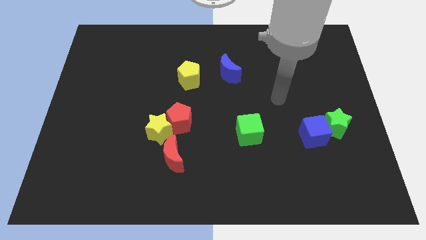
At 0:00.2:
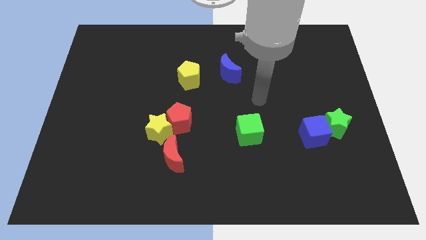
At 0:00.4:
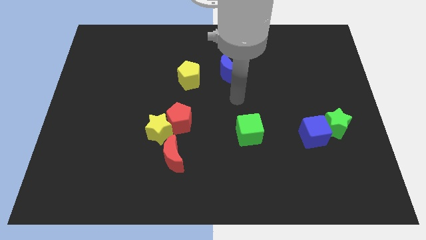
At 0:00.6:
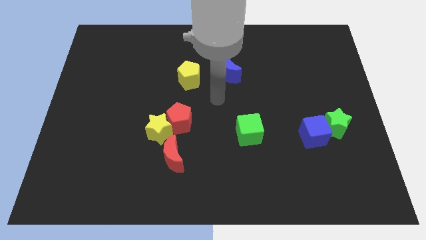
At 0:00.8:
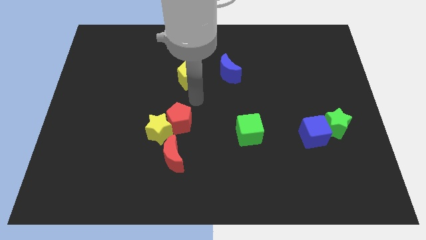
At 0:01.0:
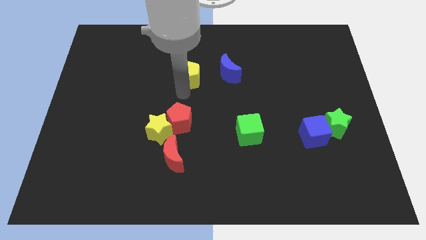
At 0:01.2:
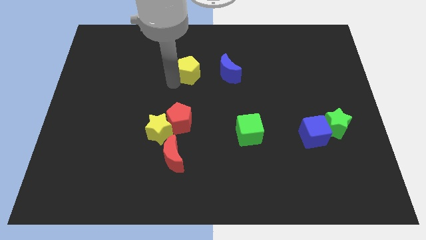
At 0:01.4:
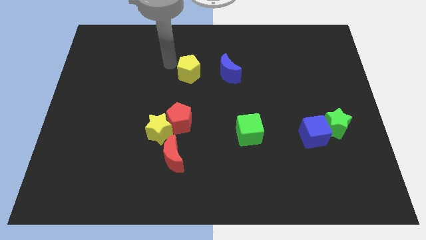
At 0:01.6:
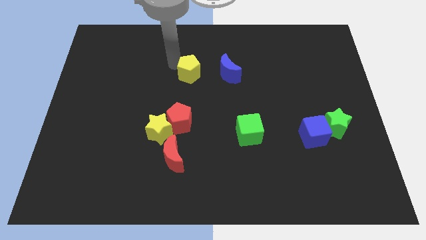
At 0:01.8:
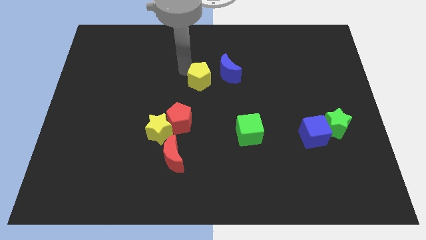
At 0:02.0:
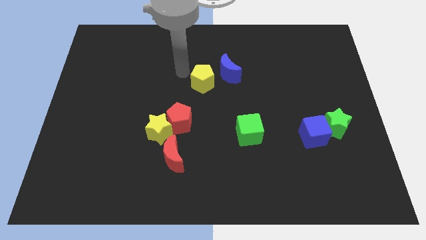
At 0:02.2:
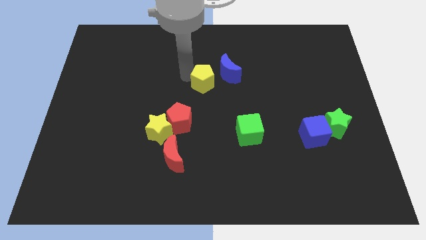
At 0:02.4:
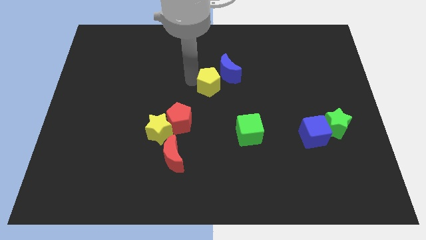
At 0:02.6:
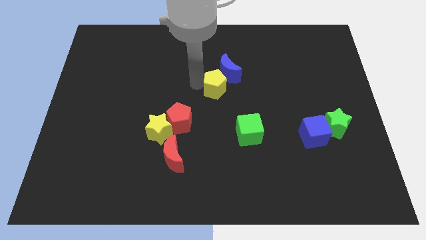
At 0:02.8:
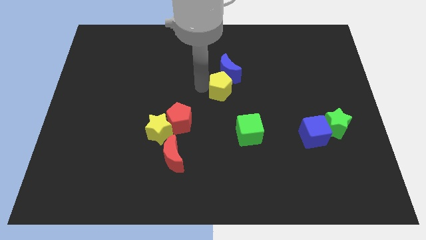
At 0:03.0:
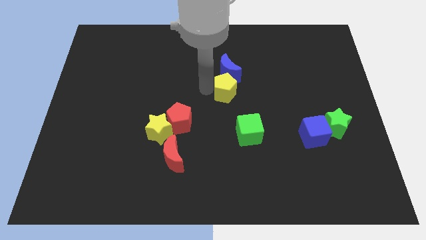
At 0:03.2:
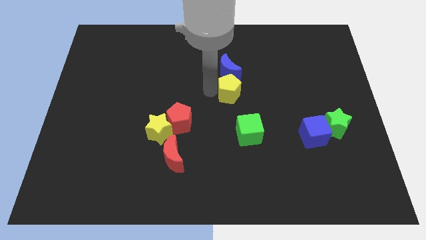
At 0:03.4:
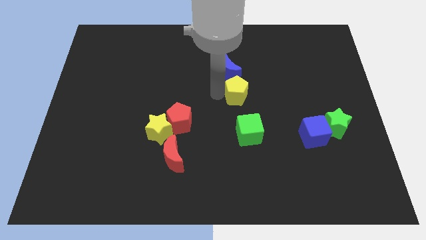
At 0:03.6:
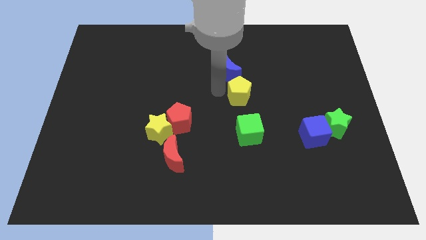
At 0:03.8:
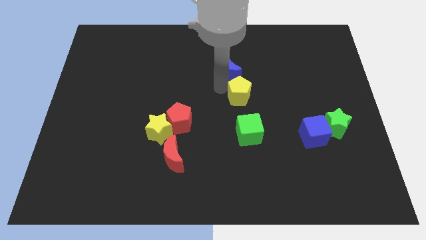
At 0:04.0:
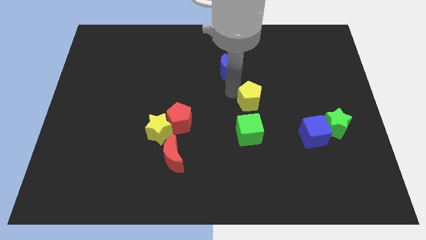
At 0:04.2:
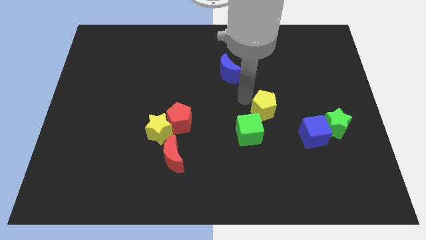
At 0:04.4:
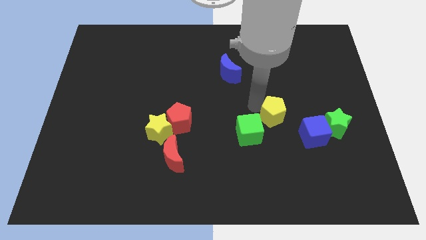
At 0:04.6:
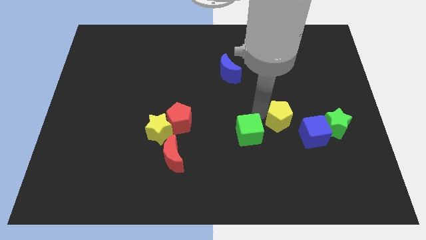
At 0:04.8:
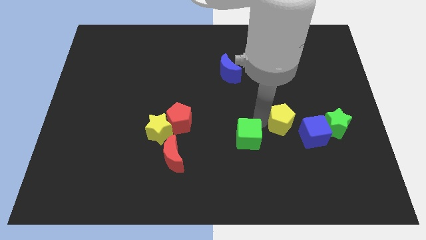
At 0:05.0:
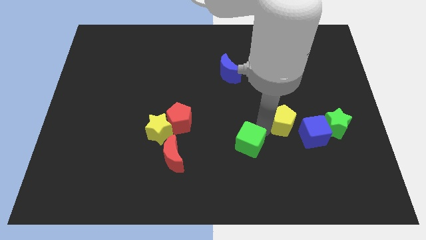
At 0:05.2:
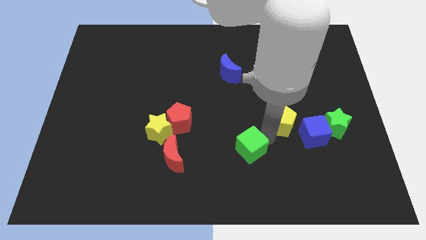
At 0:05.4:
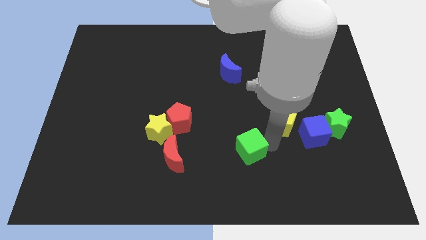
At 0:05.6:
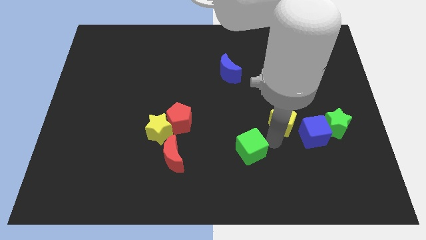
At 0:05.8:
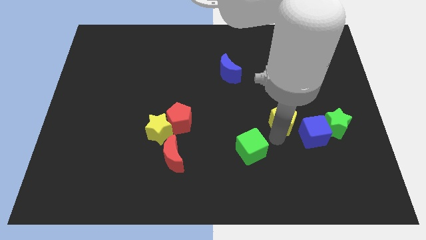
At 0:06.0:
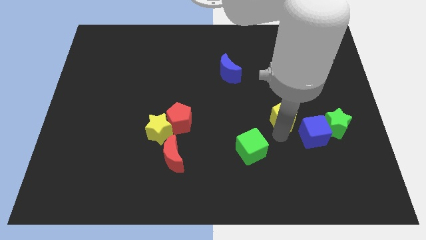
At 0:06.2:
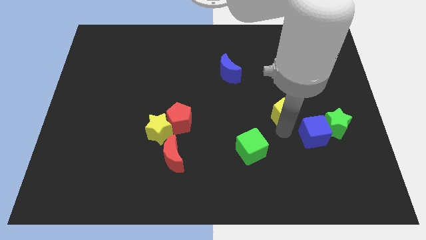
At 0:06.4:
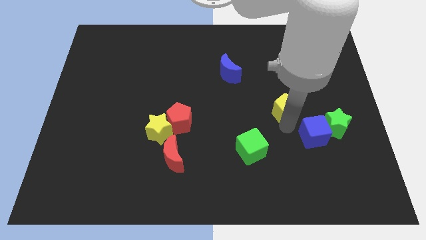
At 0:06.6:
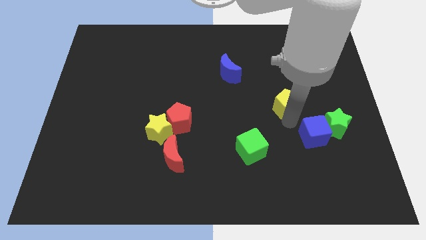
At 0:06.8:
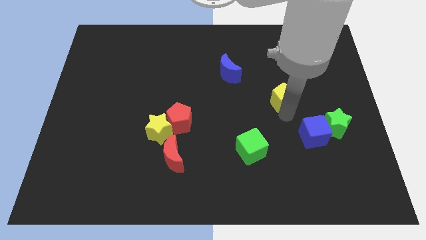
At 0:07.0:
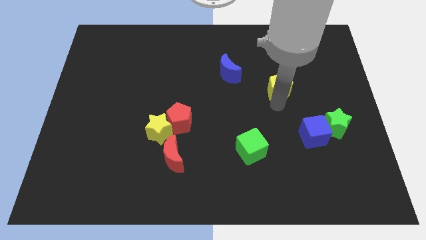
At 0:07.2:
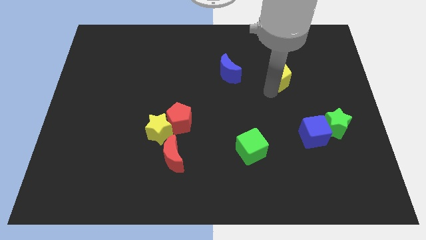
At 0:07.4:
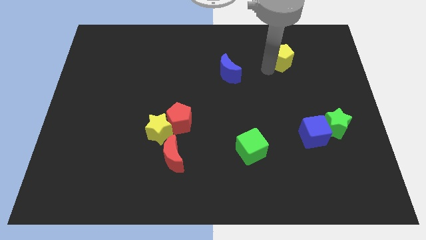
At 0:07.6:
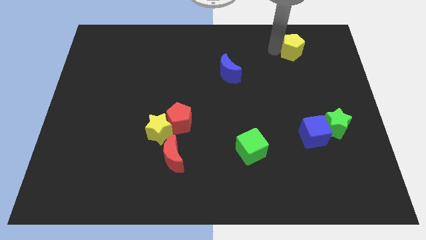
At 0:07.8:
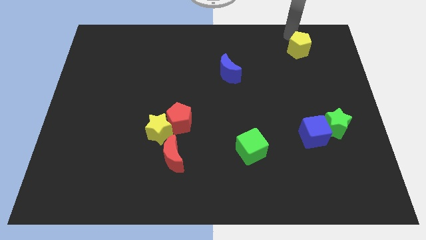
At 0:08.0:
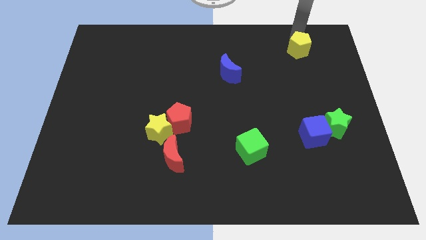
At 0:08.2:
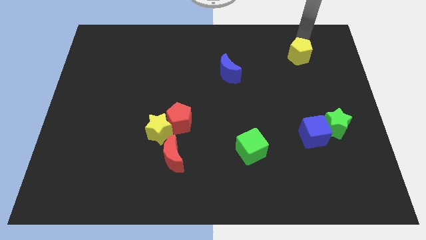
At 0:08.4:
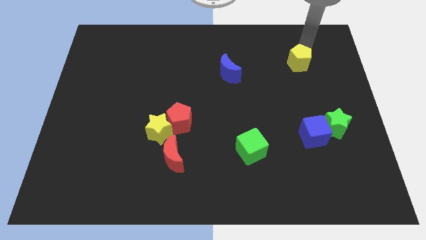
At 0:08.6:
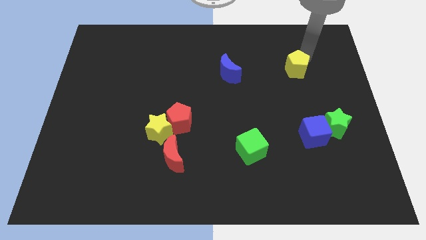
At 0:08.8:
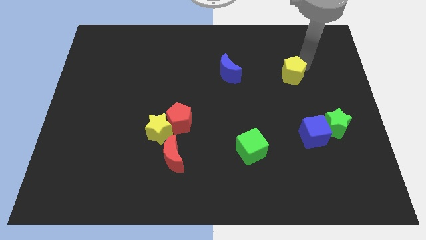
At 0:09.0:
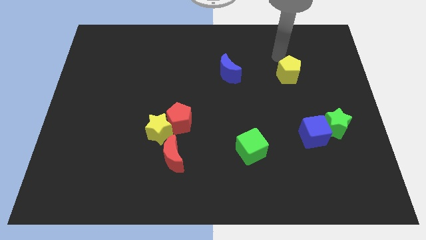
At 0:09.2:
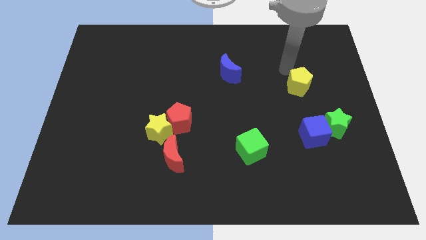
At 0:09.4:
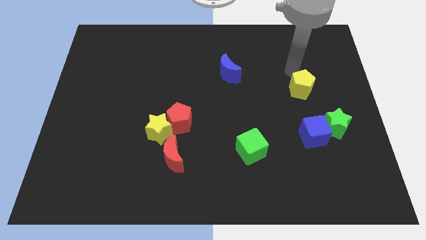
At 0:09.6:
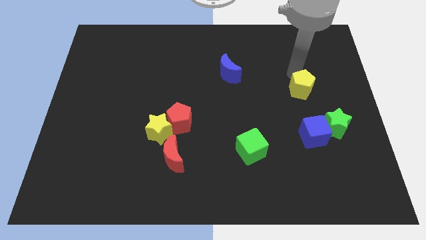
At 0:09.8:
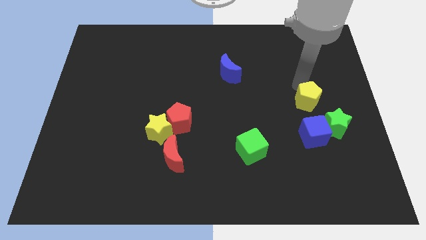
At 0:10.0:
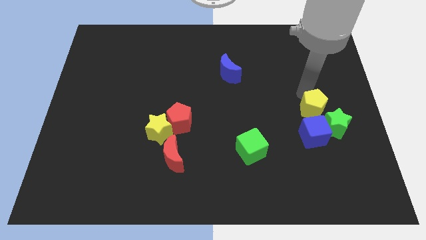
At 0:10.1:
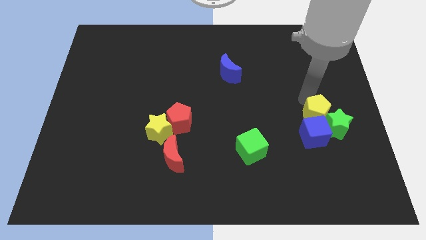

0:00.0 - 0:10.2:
slide the yellow pentagon towards the green star

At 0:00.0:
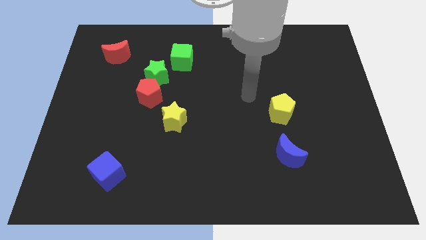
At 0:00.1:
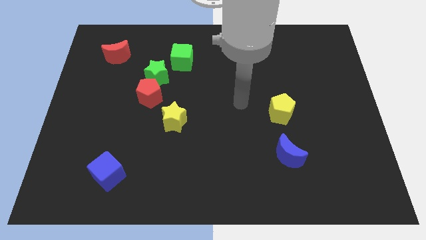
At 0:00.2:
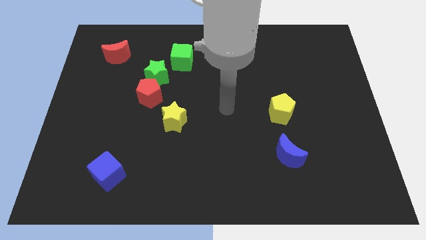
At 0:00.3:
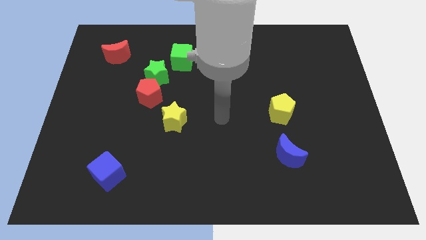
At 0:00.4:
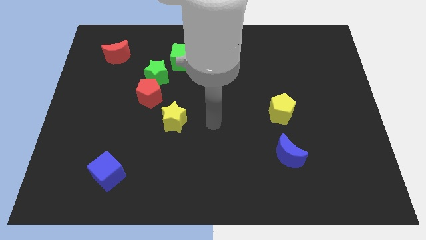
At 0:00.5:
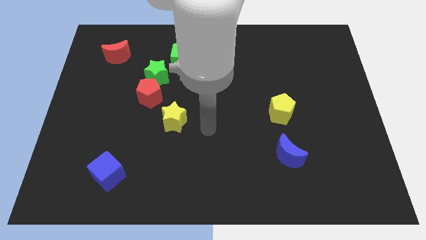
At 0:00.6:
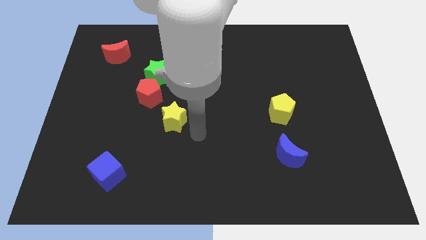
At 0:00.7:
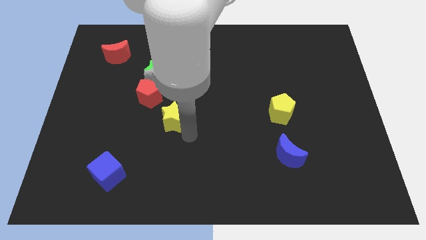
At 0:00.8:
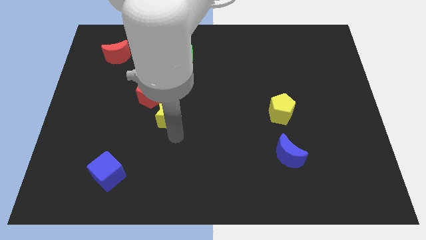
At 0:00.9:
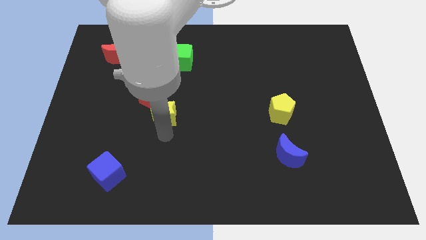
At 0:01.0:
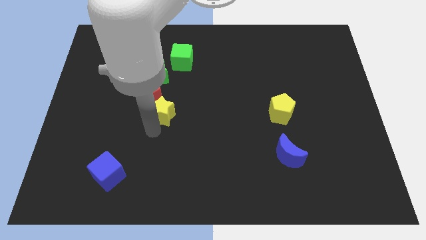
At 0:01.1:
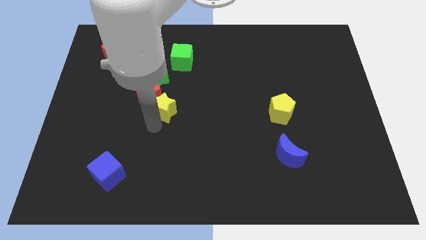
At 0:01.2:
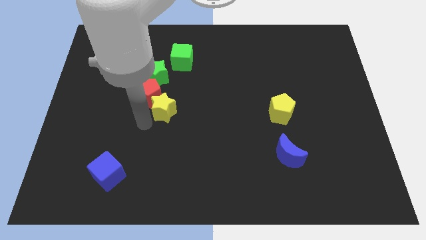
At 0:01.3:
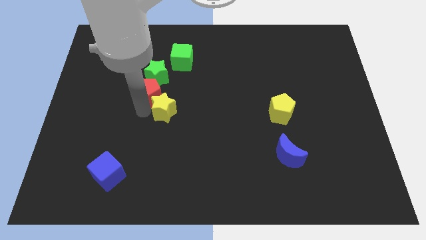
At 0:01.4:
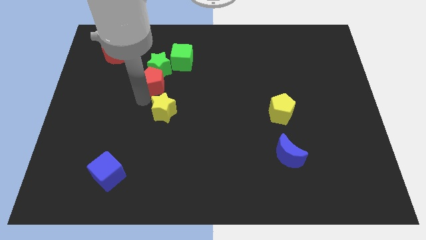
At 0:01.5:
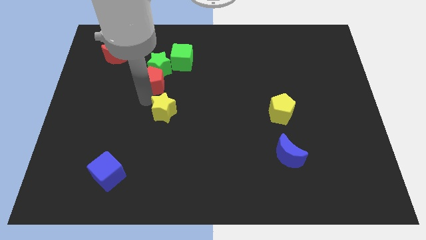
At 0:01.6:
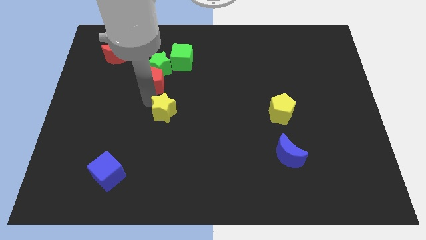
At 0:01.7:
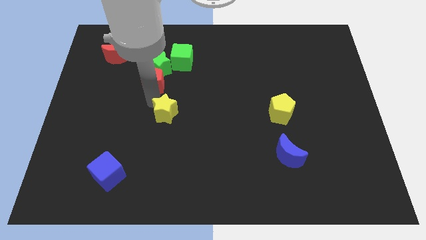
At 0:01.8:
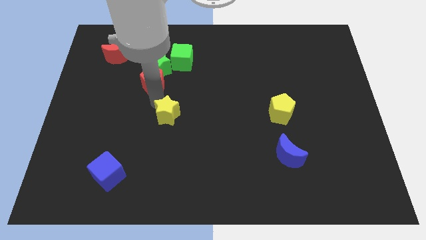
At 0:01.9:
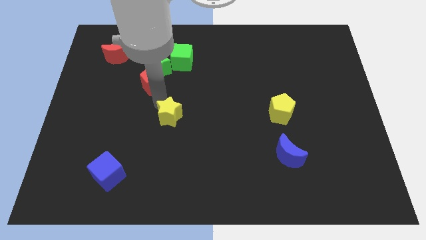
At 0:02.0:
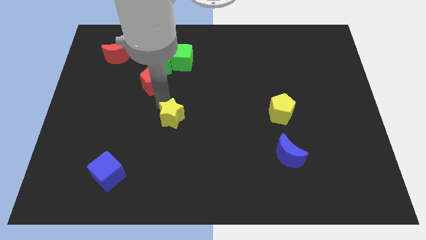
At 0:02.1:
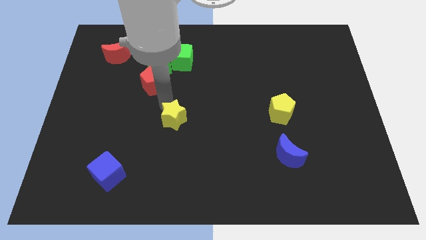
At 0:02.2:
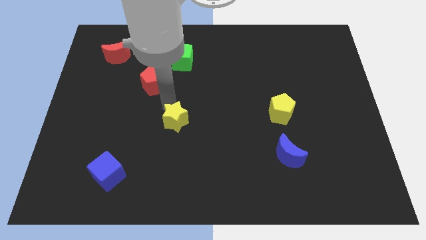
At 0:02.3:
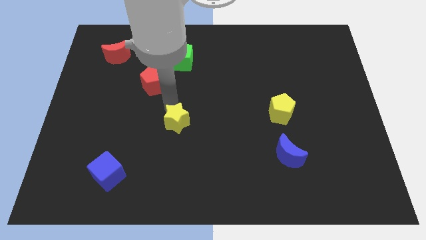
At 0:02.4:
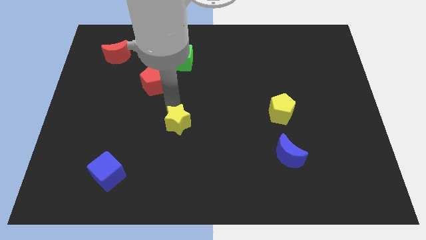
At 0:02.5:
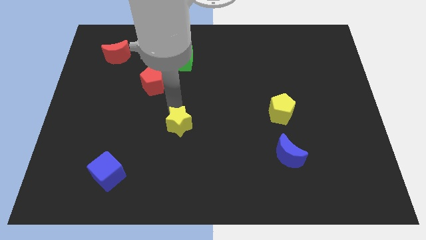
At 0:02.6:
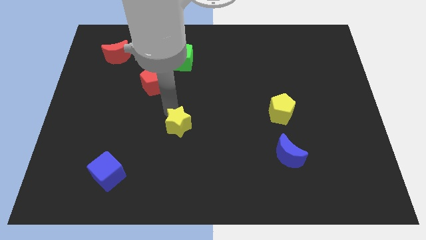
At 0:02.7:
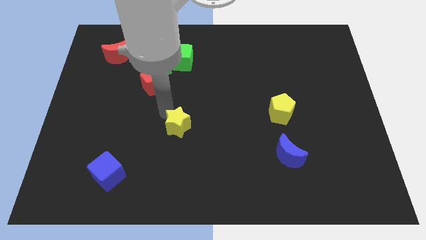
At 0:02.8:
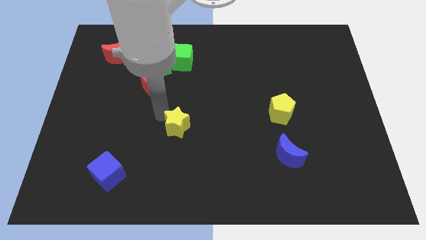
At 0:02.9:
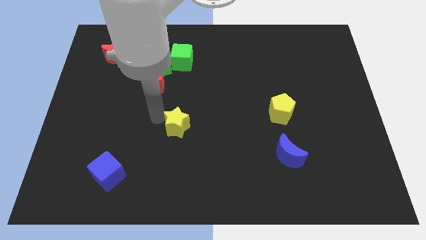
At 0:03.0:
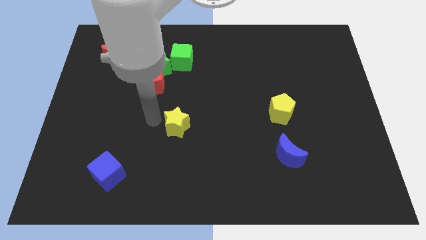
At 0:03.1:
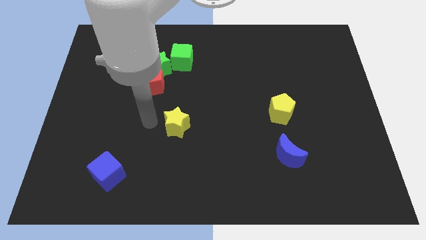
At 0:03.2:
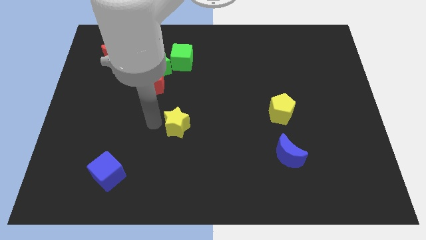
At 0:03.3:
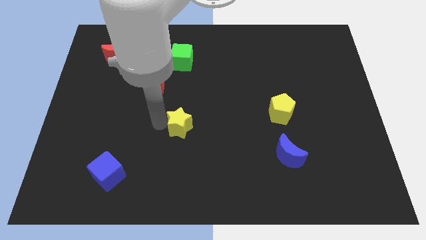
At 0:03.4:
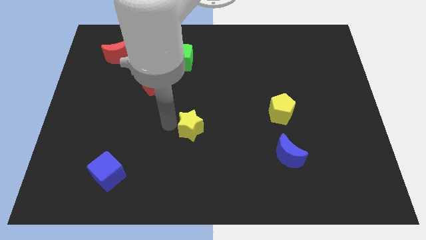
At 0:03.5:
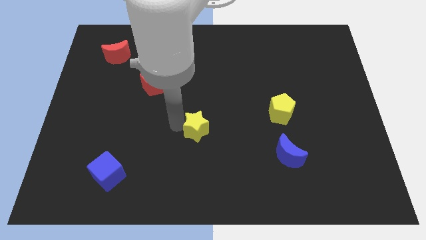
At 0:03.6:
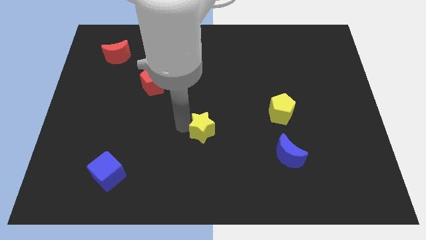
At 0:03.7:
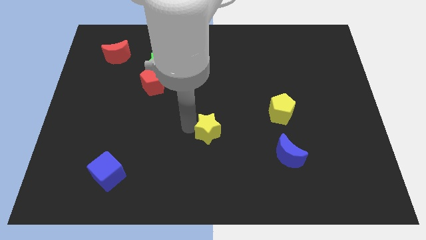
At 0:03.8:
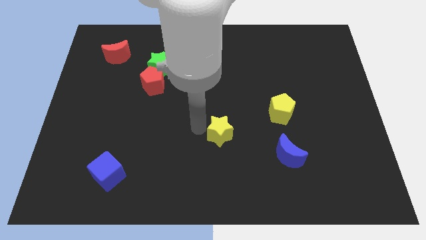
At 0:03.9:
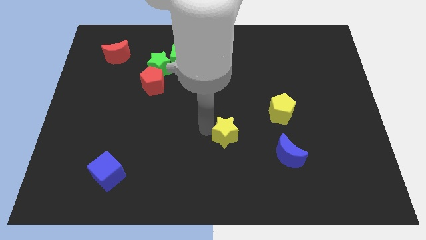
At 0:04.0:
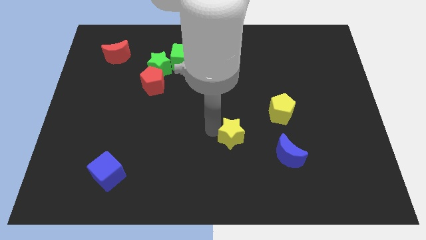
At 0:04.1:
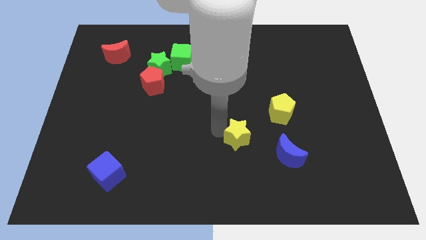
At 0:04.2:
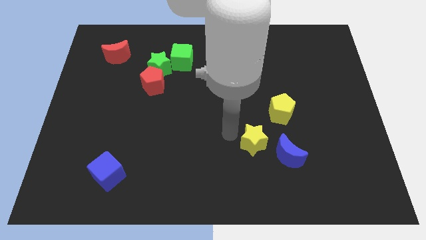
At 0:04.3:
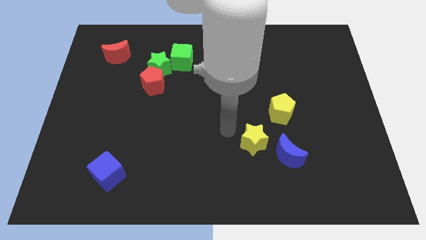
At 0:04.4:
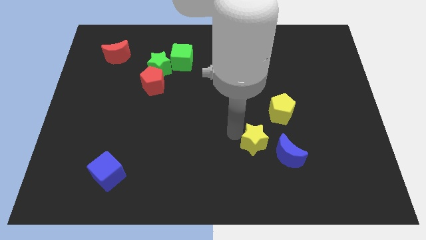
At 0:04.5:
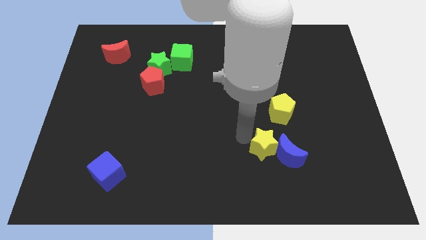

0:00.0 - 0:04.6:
slide the yellow star to the blue moon
